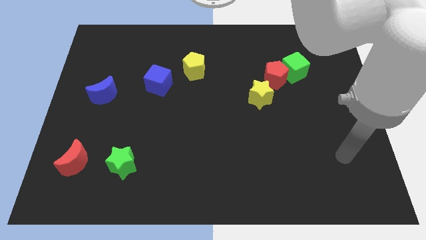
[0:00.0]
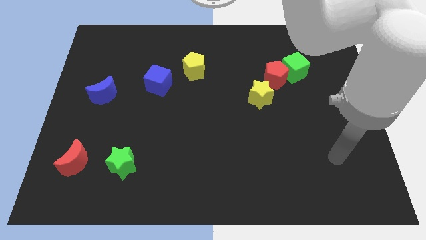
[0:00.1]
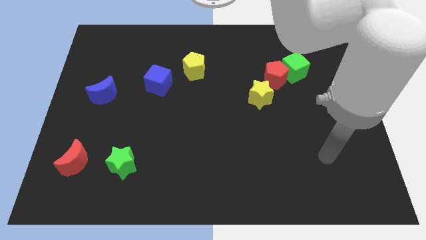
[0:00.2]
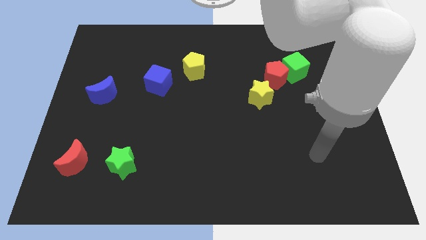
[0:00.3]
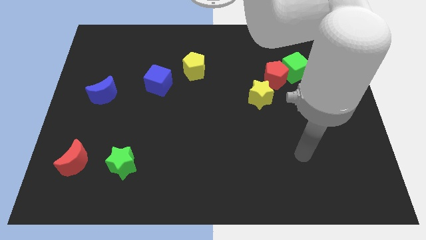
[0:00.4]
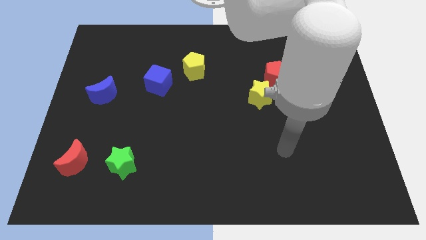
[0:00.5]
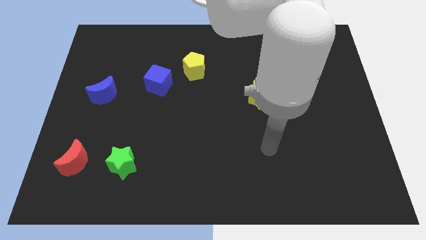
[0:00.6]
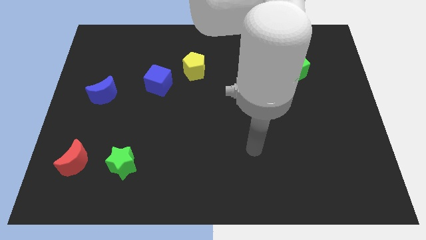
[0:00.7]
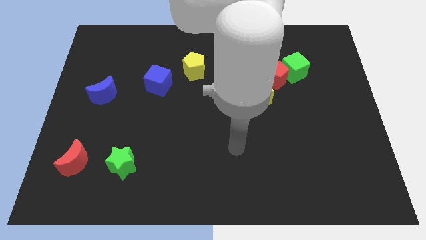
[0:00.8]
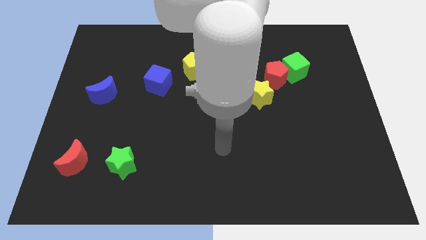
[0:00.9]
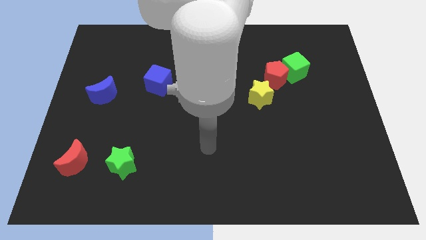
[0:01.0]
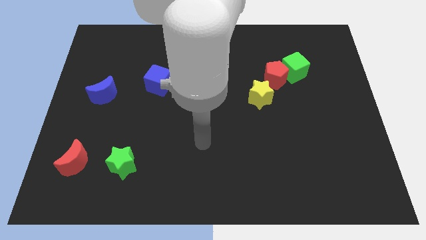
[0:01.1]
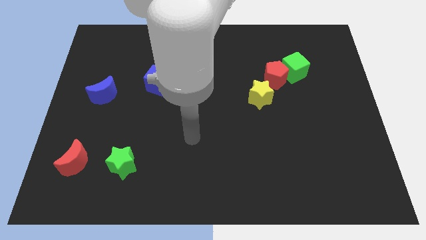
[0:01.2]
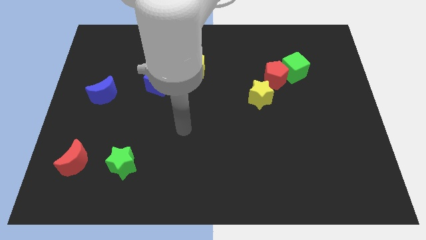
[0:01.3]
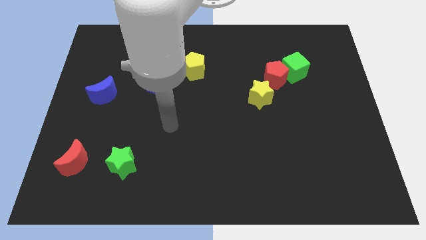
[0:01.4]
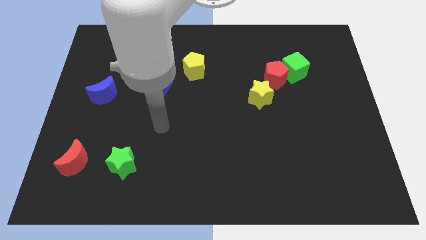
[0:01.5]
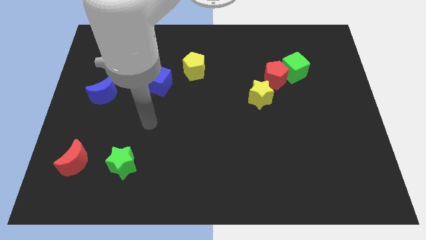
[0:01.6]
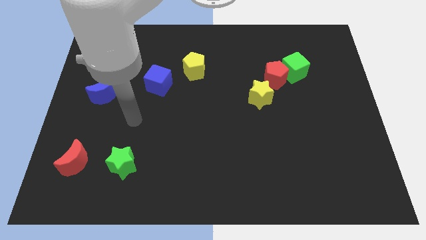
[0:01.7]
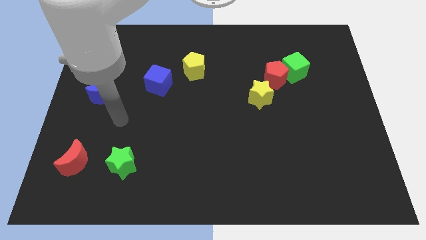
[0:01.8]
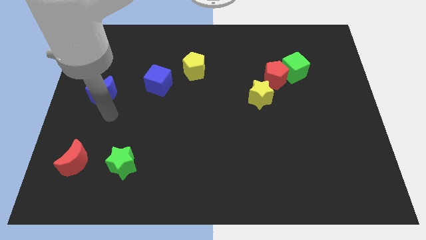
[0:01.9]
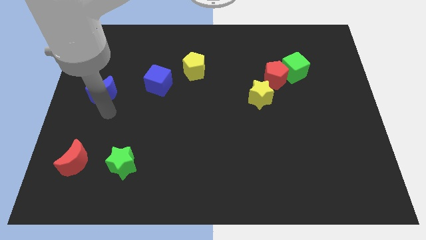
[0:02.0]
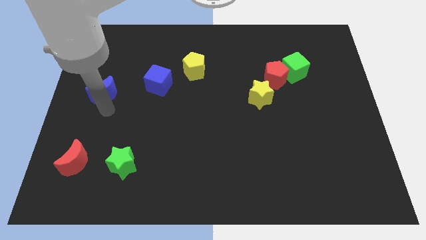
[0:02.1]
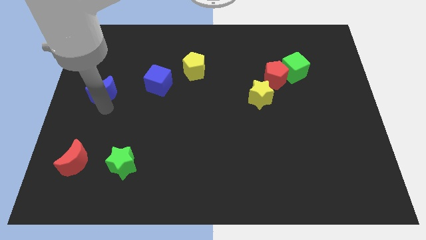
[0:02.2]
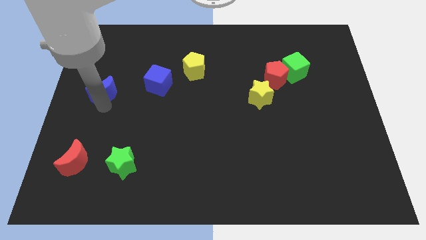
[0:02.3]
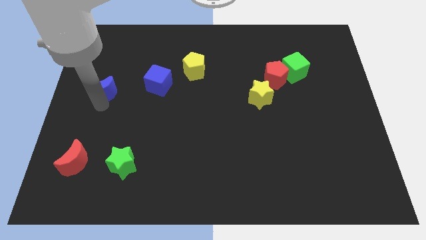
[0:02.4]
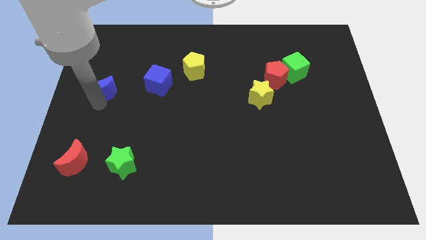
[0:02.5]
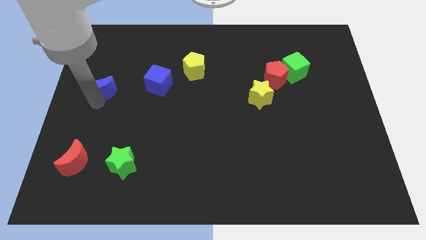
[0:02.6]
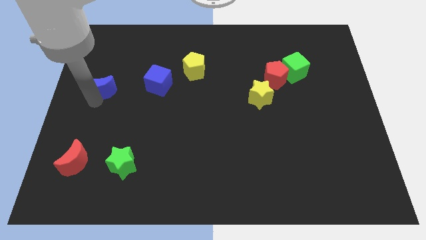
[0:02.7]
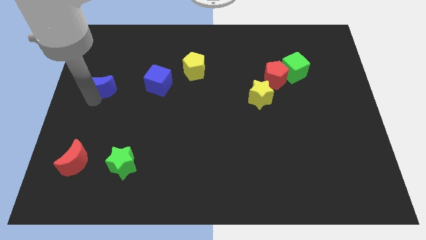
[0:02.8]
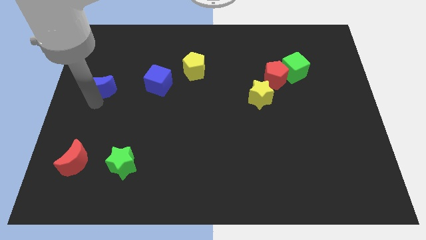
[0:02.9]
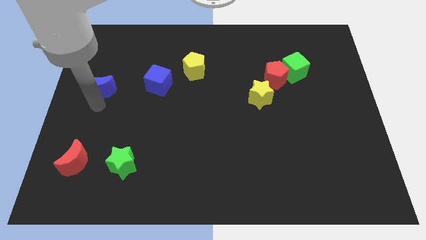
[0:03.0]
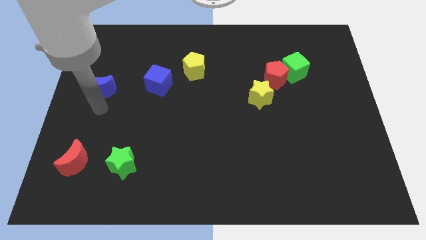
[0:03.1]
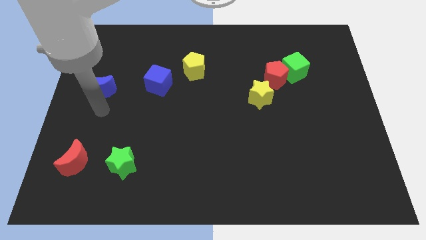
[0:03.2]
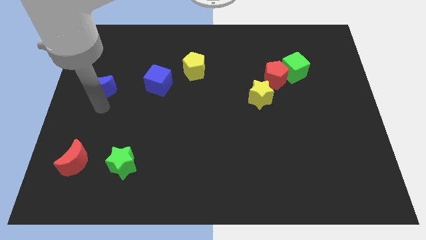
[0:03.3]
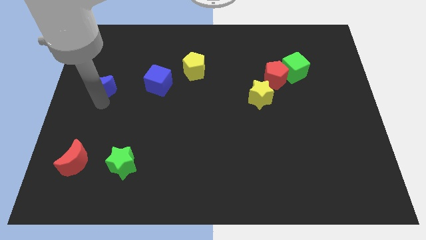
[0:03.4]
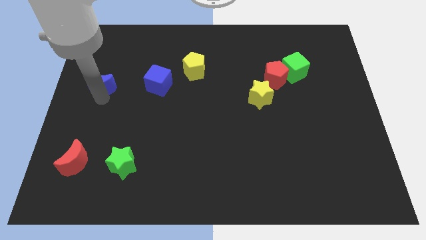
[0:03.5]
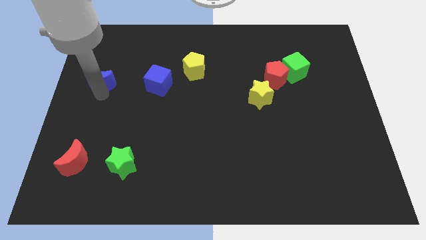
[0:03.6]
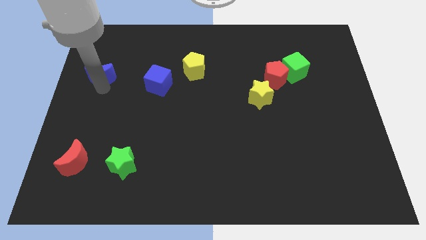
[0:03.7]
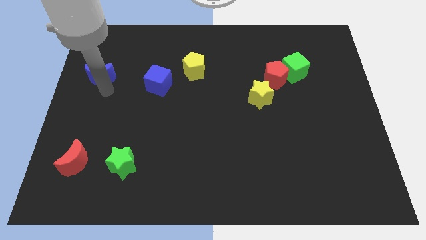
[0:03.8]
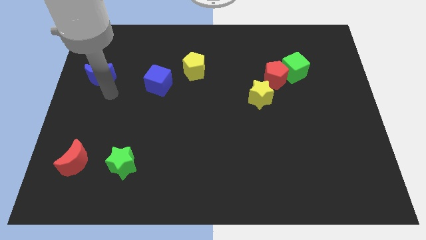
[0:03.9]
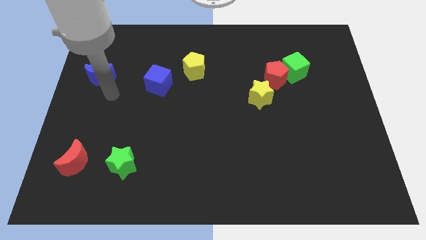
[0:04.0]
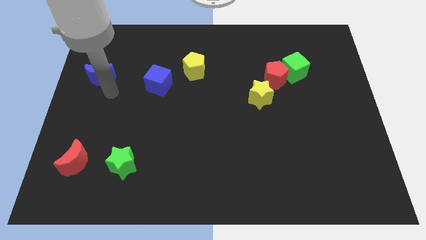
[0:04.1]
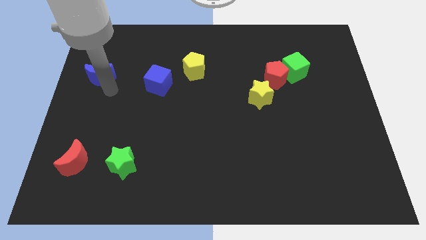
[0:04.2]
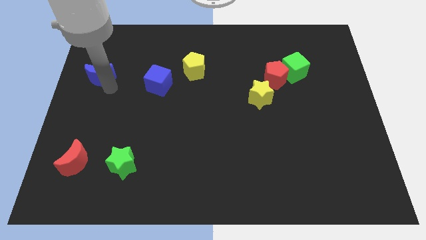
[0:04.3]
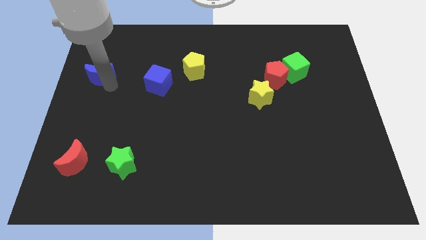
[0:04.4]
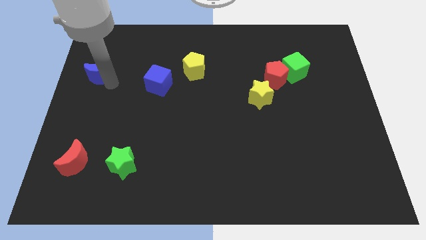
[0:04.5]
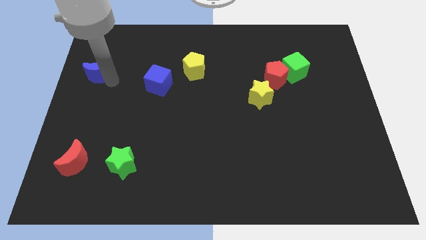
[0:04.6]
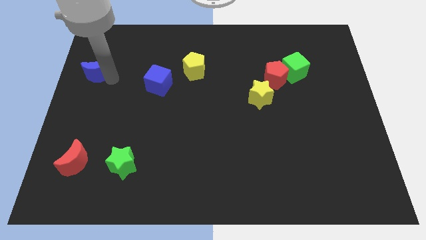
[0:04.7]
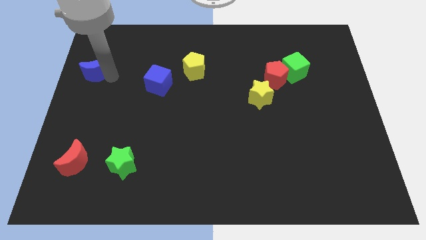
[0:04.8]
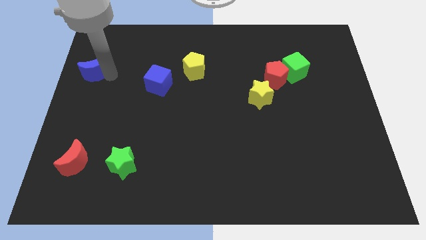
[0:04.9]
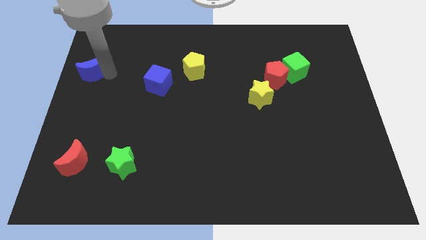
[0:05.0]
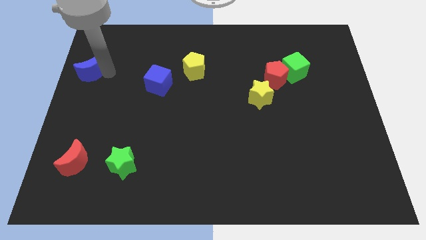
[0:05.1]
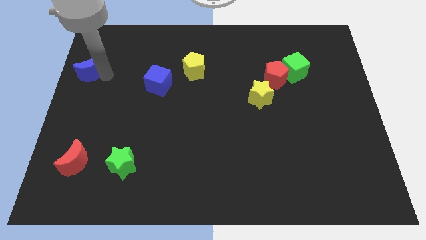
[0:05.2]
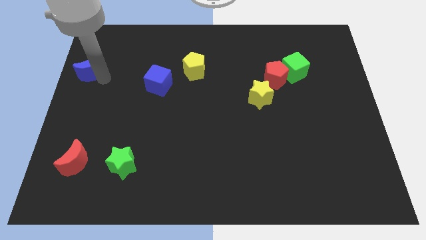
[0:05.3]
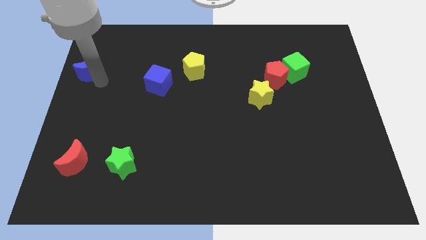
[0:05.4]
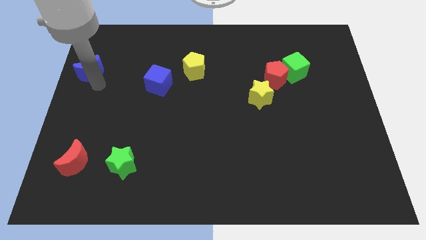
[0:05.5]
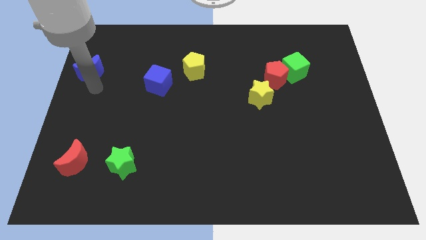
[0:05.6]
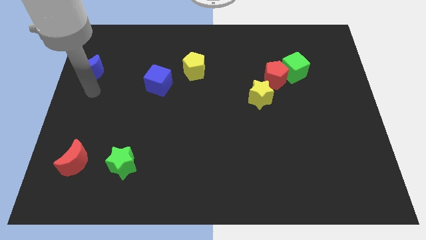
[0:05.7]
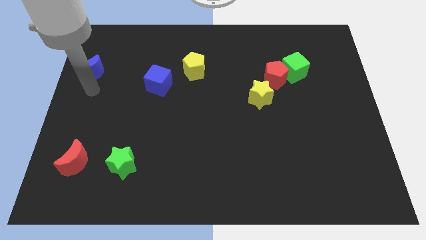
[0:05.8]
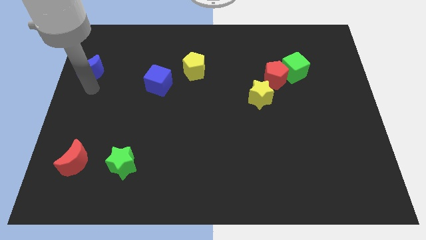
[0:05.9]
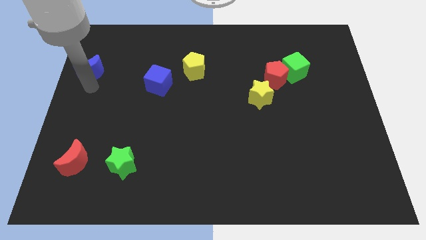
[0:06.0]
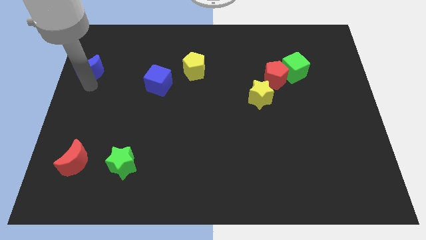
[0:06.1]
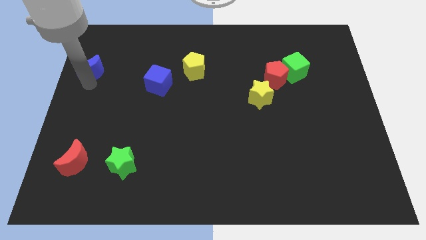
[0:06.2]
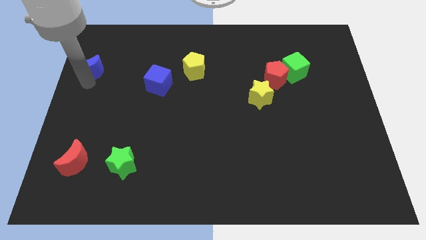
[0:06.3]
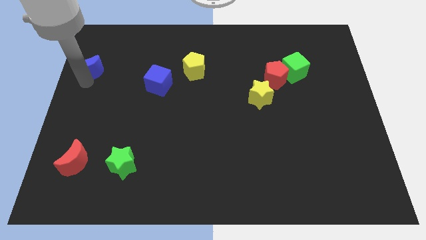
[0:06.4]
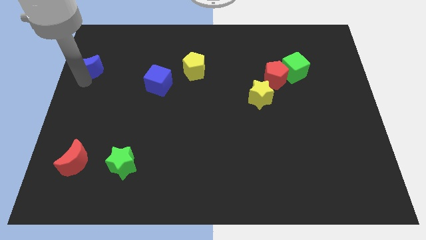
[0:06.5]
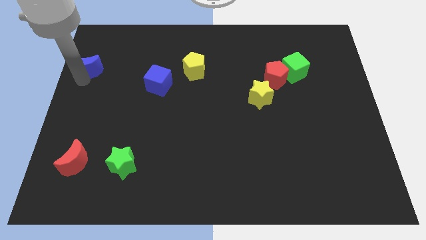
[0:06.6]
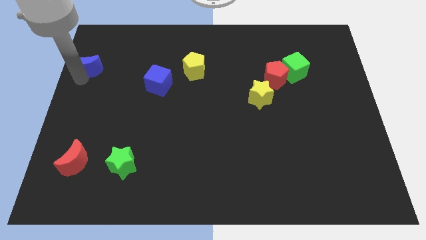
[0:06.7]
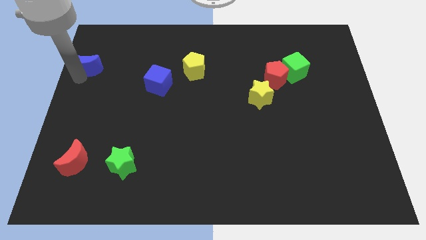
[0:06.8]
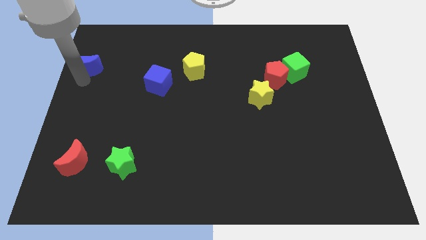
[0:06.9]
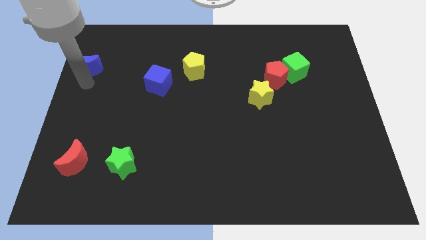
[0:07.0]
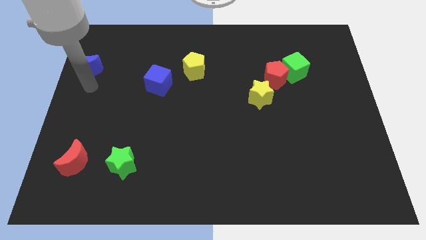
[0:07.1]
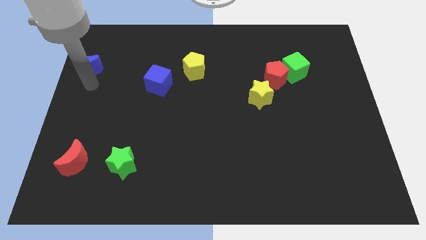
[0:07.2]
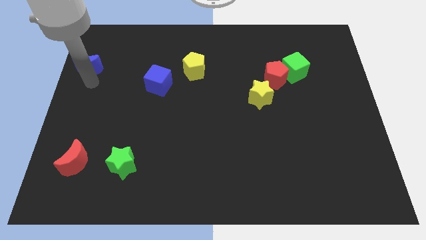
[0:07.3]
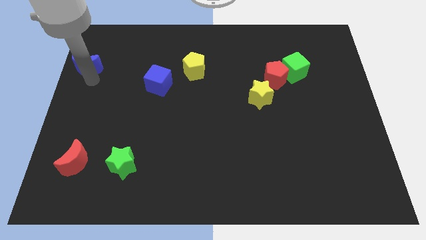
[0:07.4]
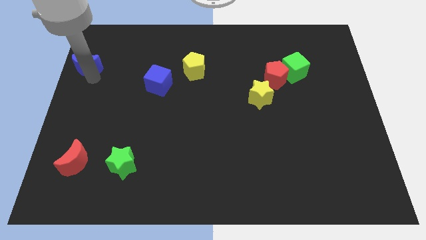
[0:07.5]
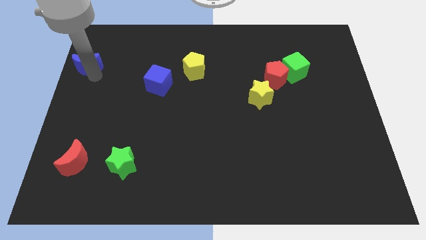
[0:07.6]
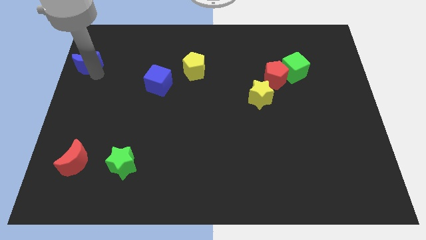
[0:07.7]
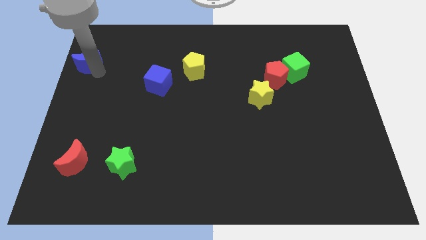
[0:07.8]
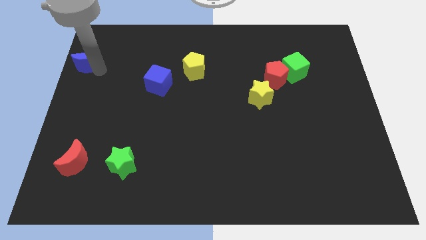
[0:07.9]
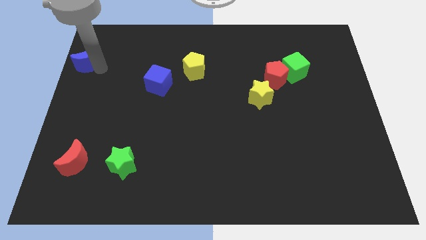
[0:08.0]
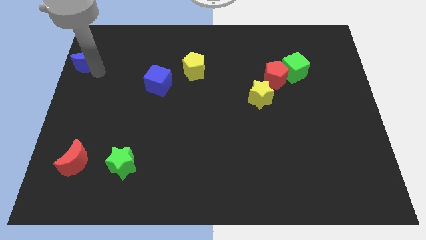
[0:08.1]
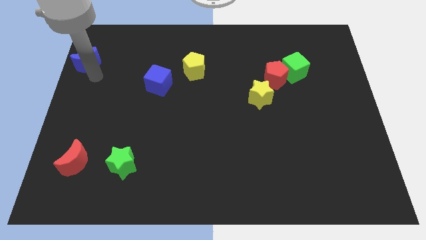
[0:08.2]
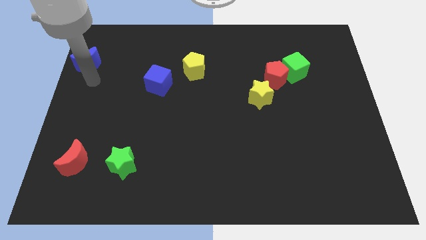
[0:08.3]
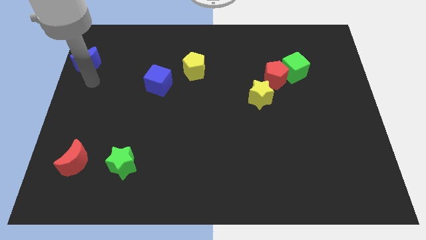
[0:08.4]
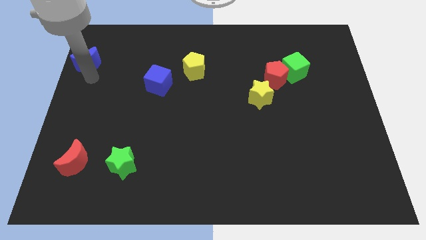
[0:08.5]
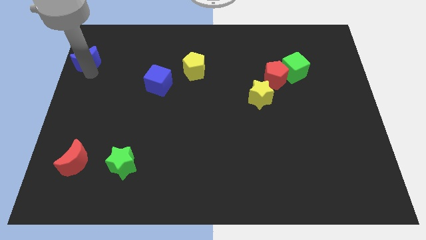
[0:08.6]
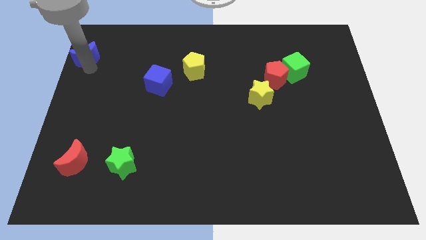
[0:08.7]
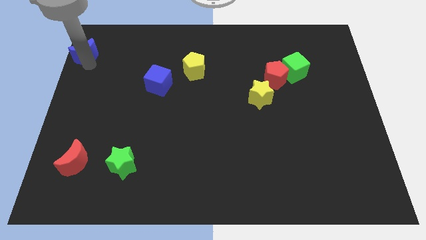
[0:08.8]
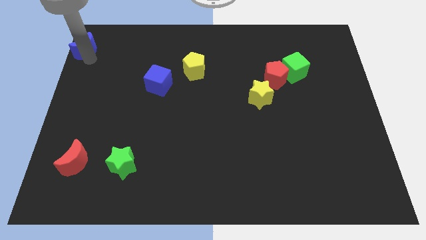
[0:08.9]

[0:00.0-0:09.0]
slide the blue moon to the top left
